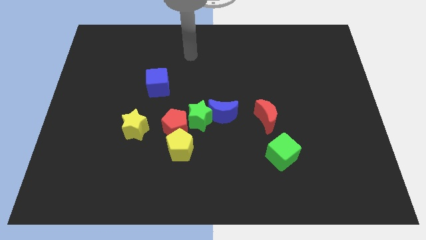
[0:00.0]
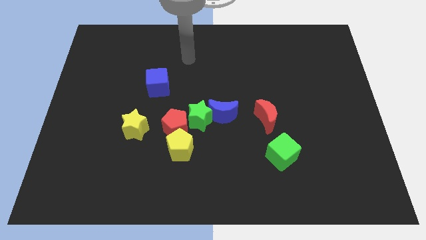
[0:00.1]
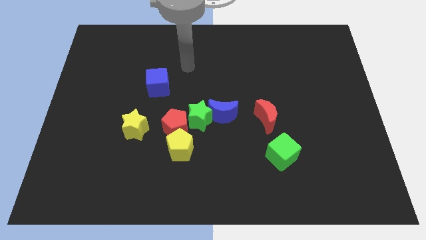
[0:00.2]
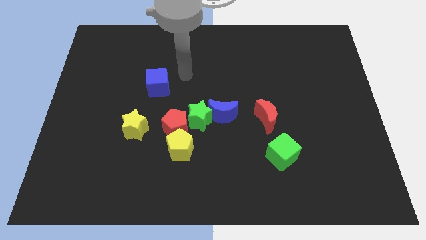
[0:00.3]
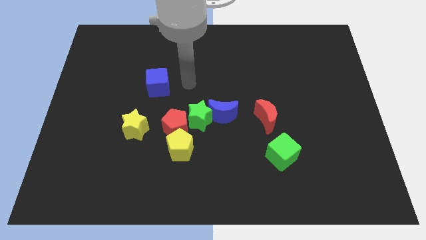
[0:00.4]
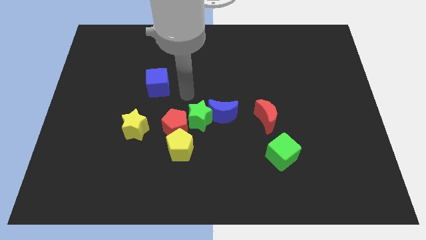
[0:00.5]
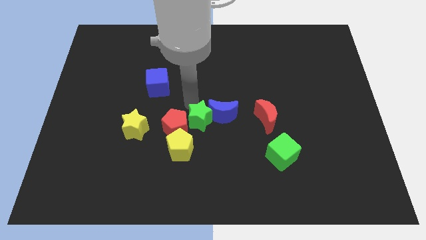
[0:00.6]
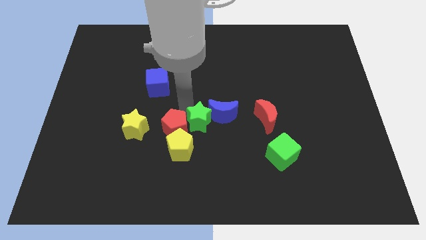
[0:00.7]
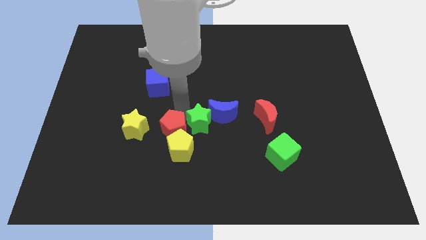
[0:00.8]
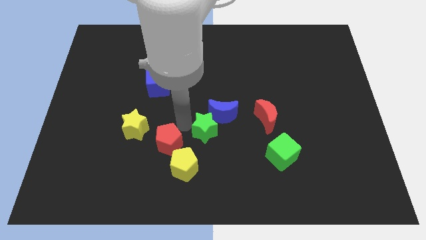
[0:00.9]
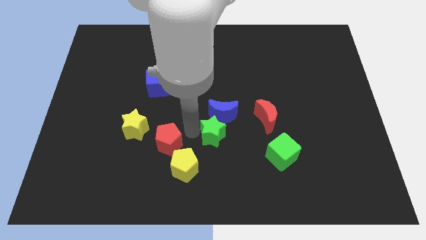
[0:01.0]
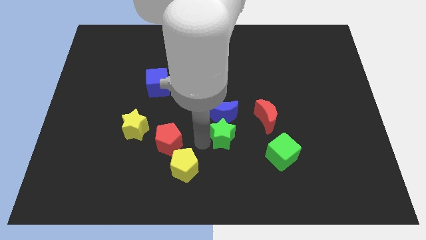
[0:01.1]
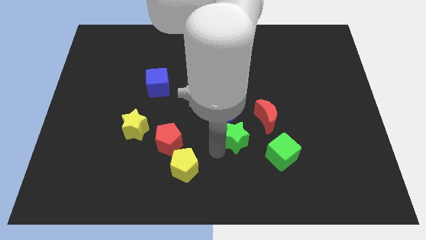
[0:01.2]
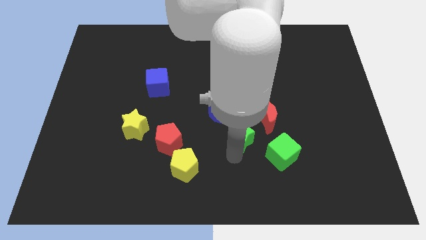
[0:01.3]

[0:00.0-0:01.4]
pull the green star apart from the blue moon, red pentagon, and yellow pentagon

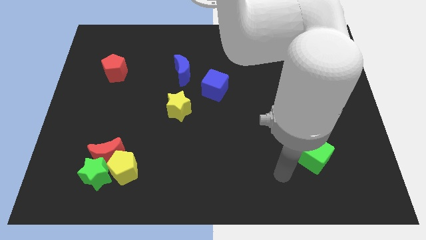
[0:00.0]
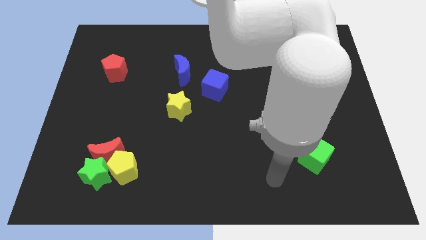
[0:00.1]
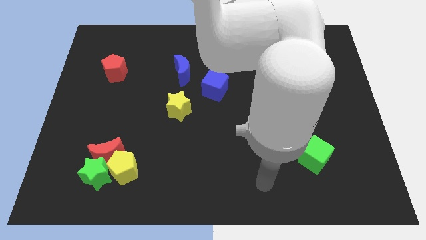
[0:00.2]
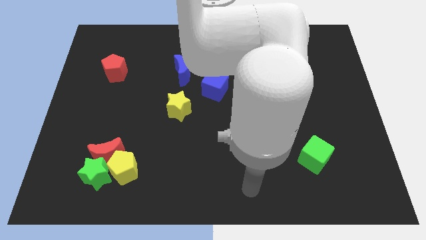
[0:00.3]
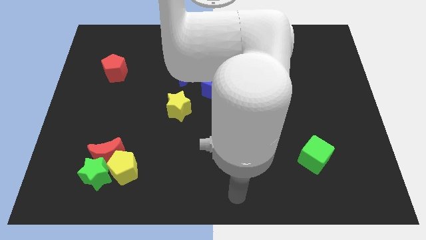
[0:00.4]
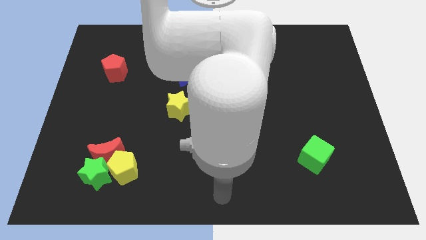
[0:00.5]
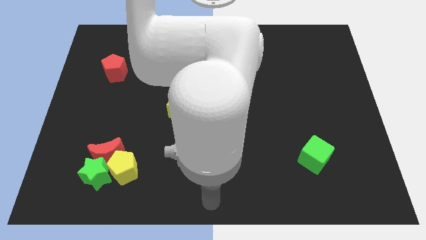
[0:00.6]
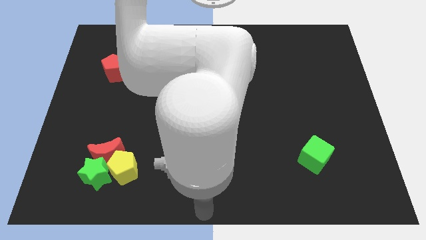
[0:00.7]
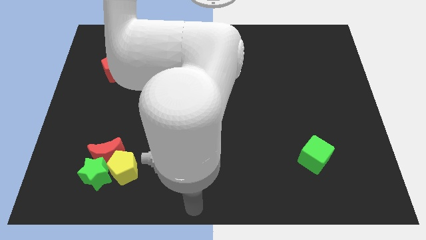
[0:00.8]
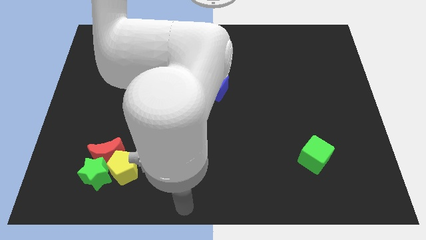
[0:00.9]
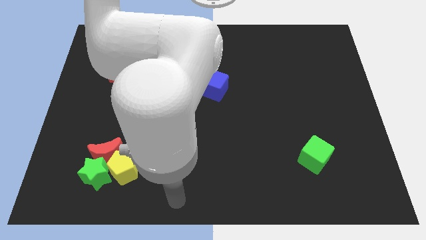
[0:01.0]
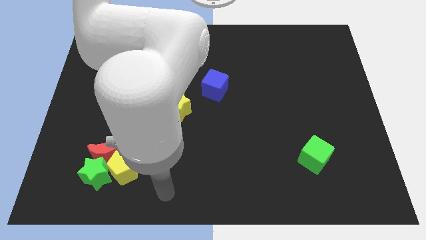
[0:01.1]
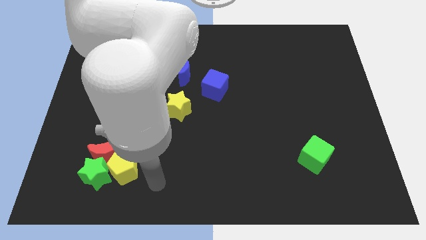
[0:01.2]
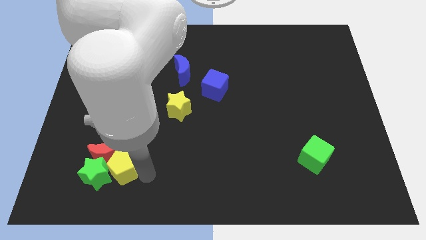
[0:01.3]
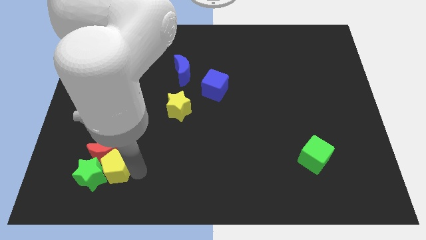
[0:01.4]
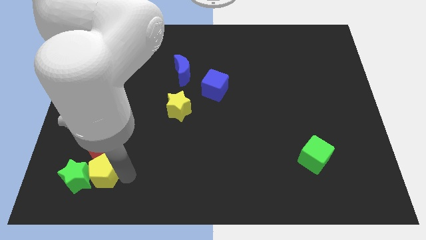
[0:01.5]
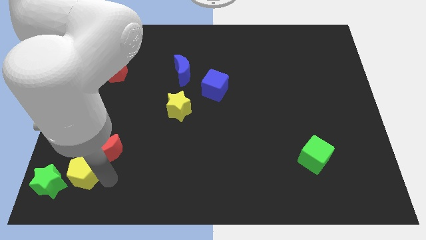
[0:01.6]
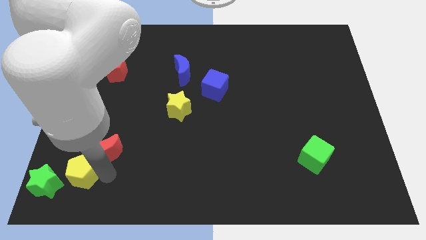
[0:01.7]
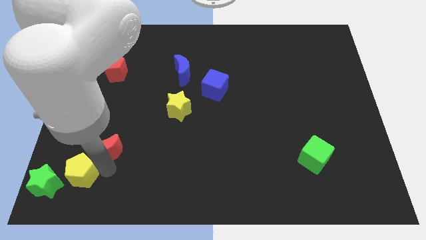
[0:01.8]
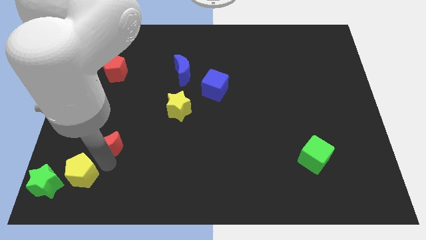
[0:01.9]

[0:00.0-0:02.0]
move the red moon away from the green star and yellow pentagon

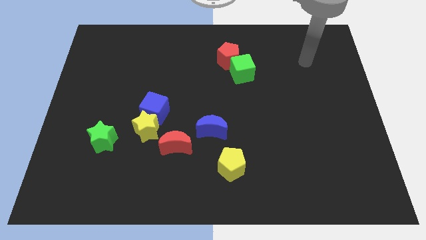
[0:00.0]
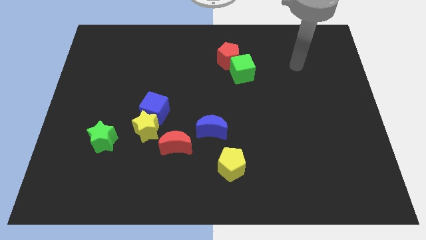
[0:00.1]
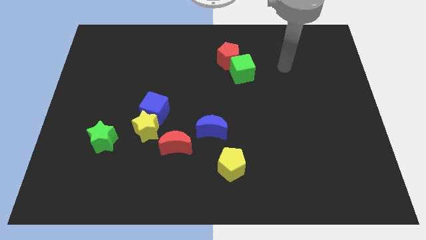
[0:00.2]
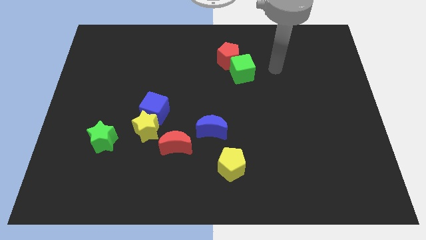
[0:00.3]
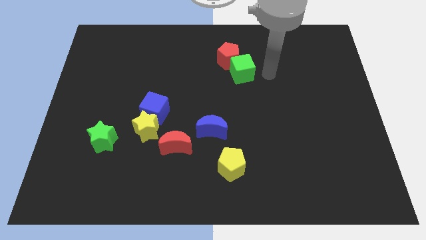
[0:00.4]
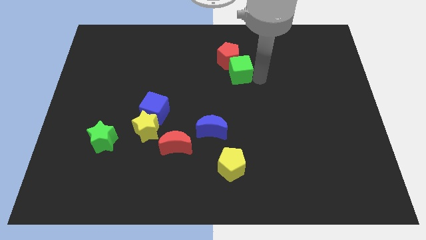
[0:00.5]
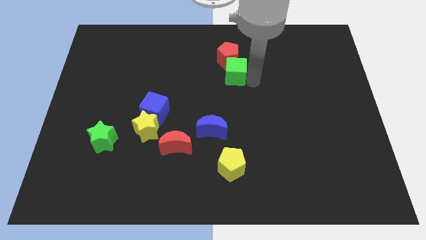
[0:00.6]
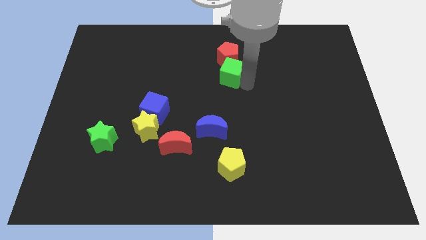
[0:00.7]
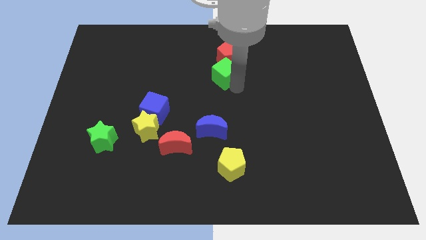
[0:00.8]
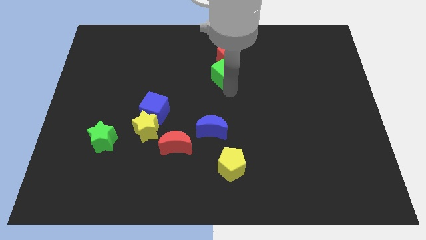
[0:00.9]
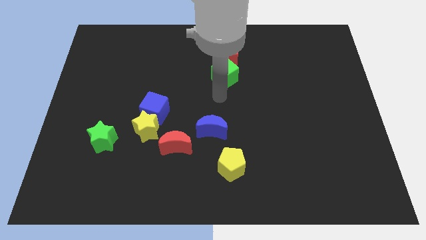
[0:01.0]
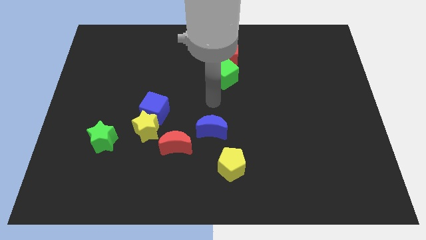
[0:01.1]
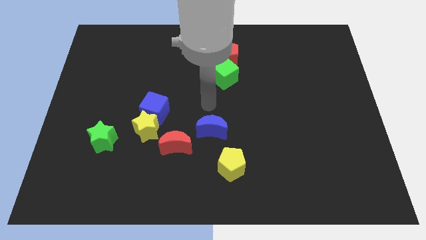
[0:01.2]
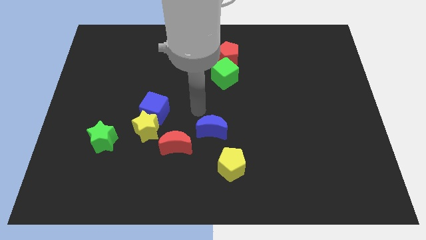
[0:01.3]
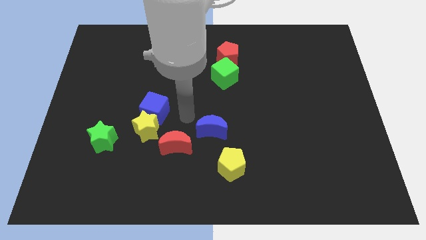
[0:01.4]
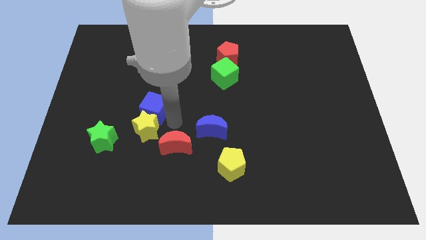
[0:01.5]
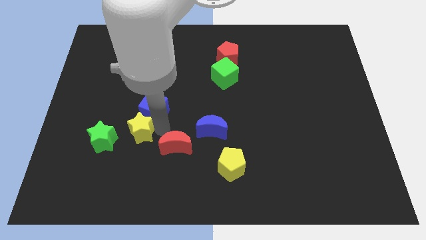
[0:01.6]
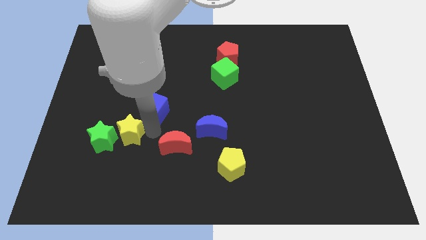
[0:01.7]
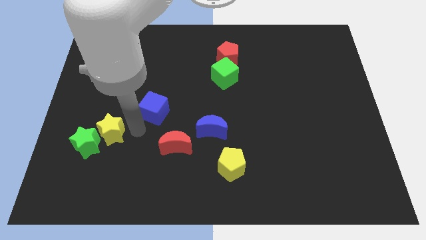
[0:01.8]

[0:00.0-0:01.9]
separate the blue cube from the yellow star

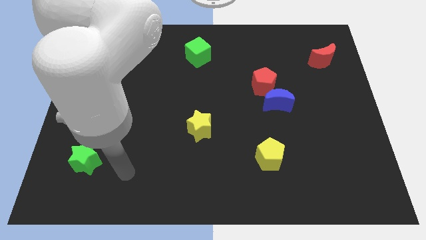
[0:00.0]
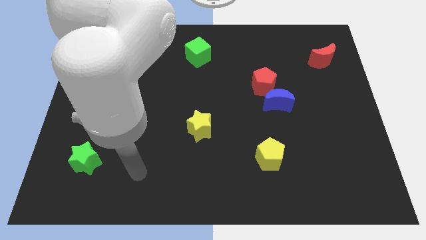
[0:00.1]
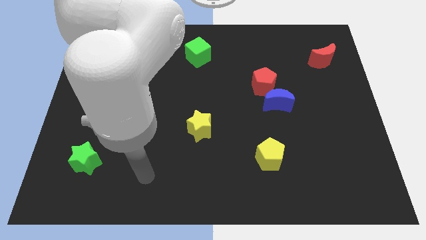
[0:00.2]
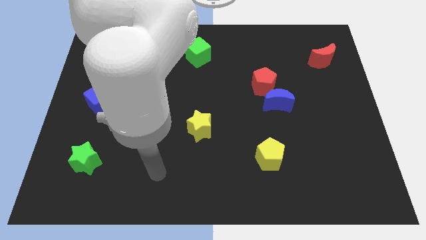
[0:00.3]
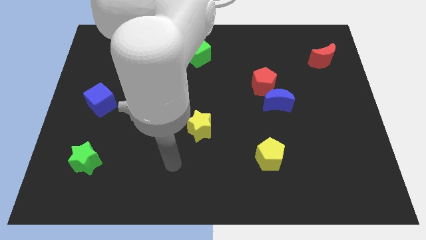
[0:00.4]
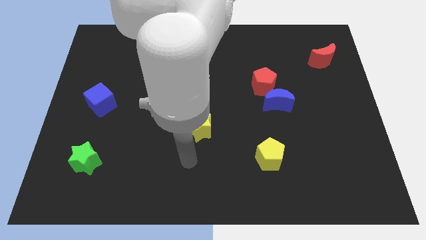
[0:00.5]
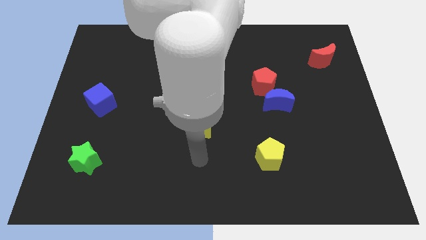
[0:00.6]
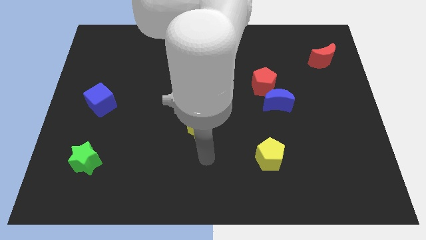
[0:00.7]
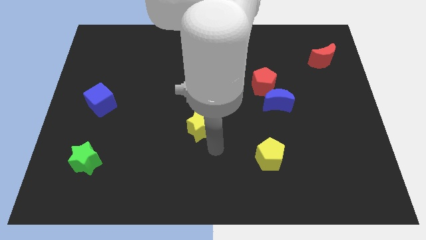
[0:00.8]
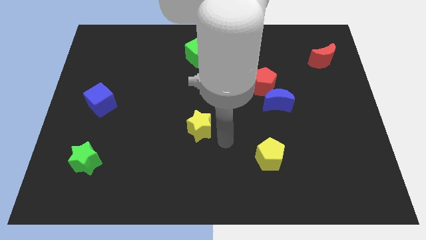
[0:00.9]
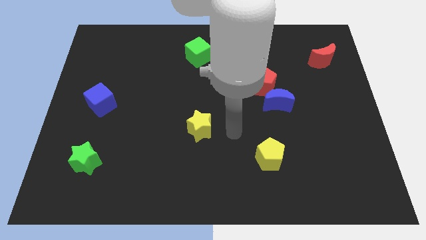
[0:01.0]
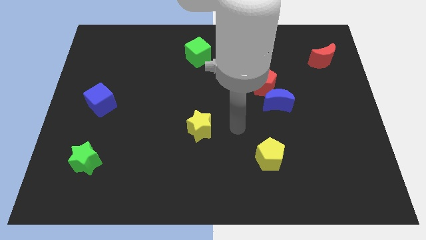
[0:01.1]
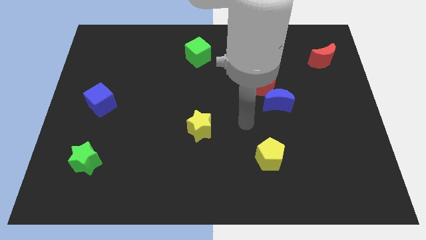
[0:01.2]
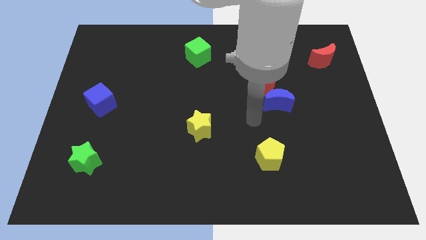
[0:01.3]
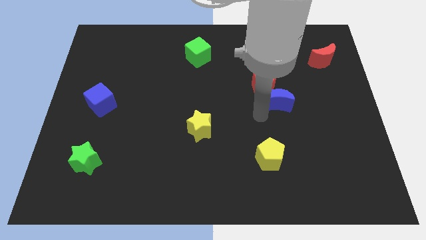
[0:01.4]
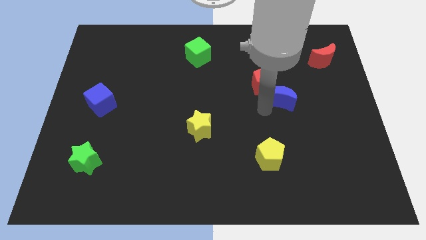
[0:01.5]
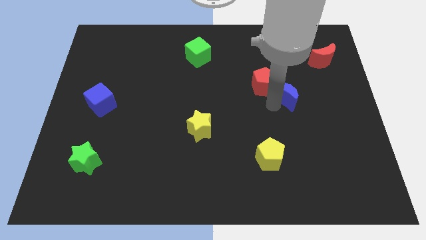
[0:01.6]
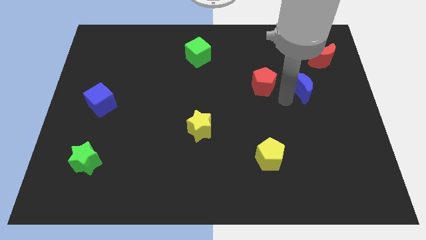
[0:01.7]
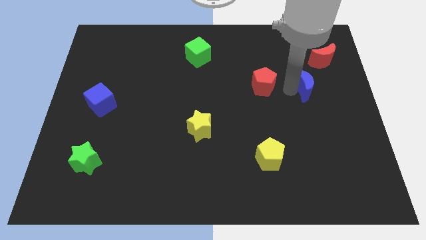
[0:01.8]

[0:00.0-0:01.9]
separate the red pentagon from the blue moon

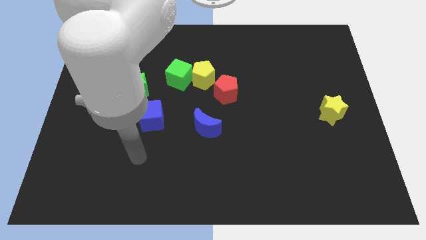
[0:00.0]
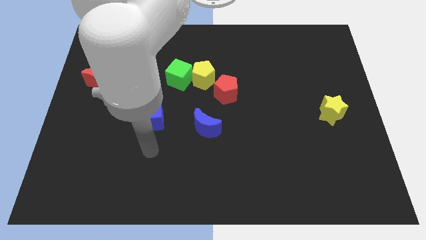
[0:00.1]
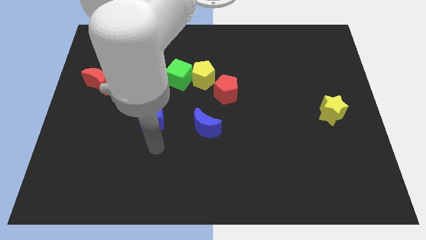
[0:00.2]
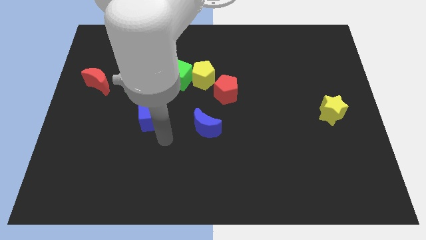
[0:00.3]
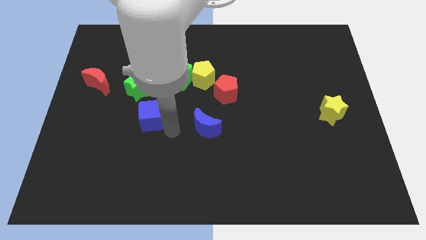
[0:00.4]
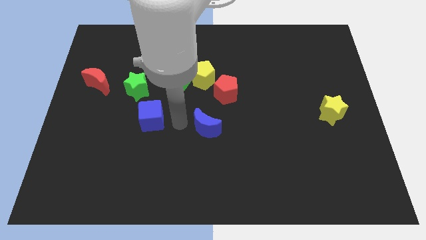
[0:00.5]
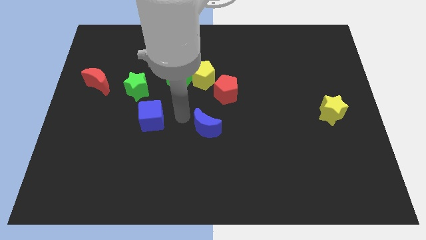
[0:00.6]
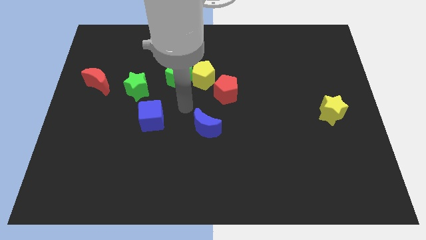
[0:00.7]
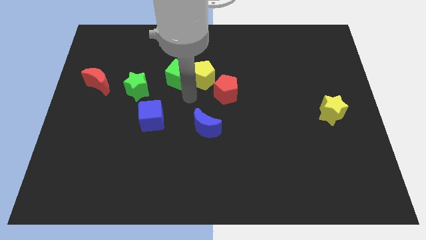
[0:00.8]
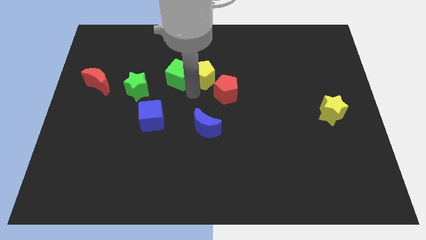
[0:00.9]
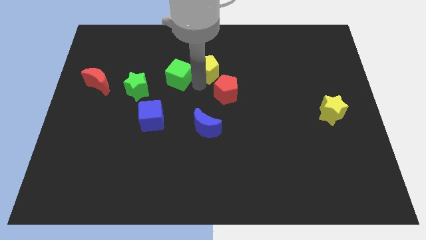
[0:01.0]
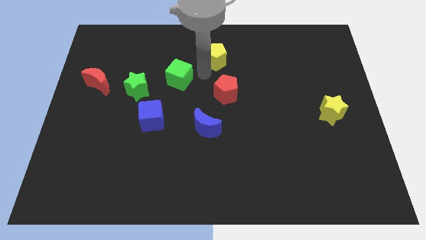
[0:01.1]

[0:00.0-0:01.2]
separate the green cube from the yellow pentagon

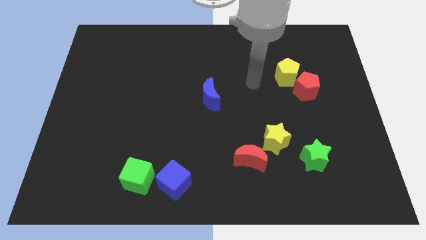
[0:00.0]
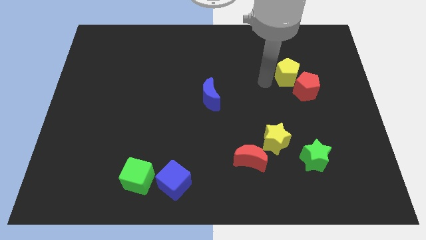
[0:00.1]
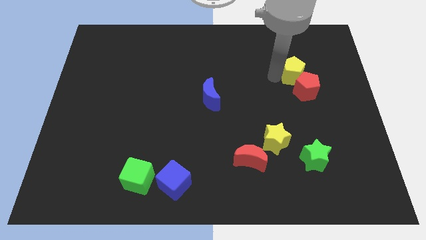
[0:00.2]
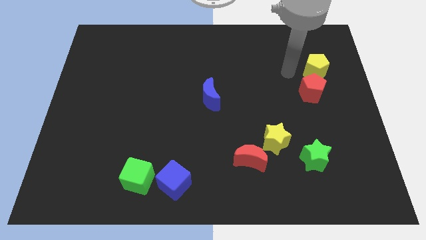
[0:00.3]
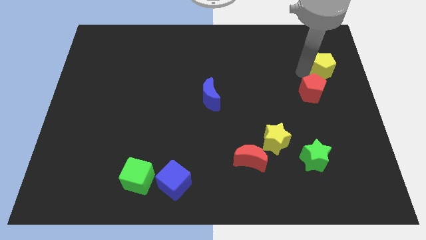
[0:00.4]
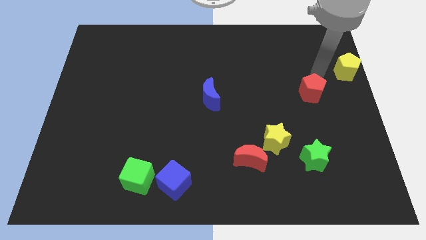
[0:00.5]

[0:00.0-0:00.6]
move the red pentagon away from the yellow pentagon

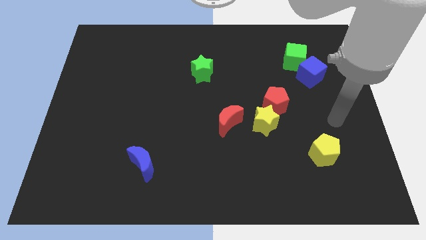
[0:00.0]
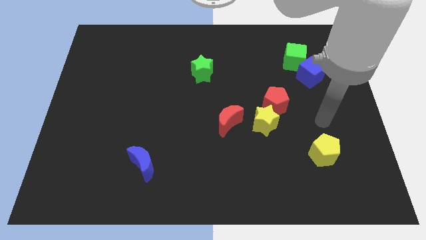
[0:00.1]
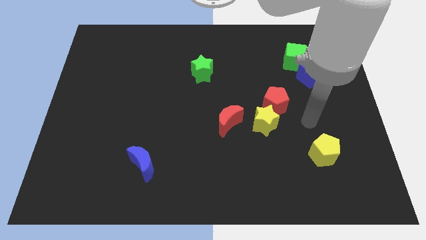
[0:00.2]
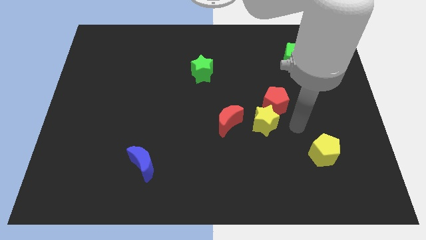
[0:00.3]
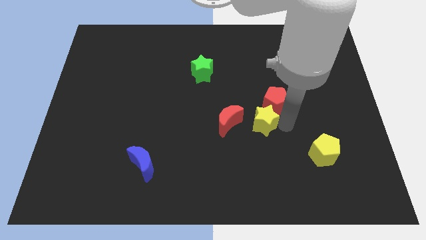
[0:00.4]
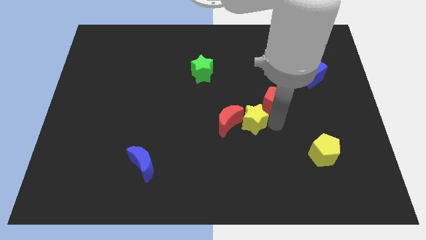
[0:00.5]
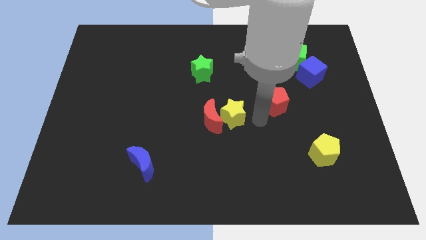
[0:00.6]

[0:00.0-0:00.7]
separate the red pentagon from the yellow star
